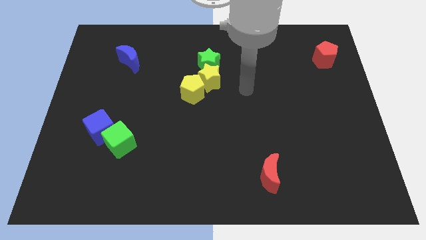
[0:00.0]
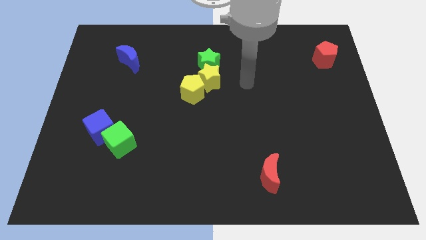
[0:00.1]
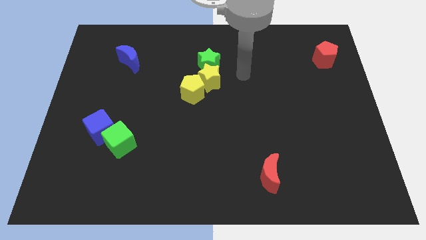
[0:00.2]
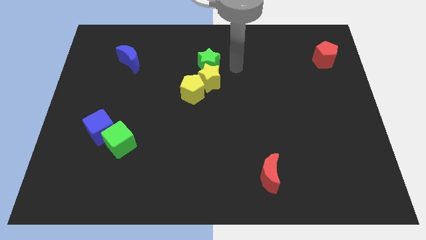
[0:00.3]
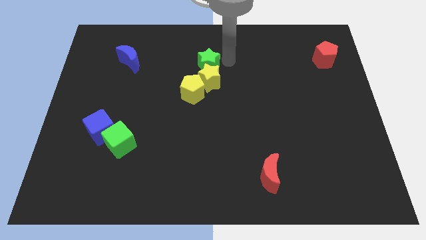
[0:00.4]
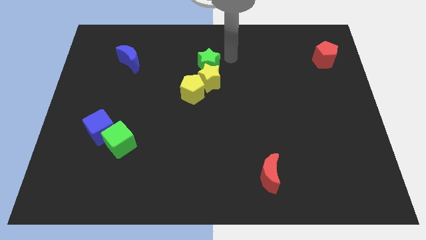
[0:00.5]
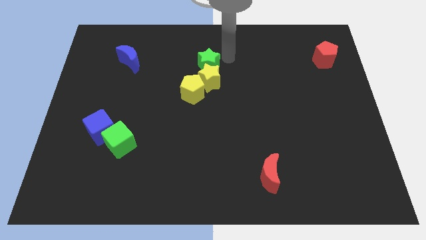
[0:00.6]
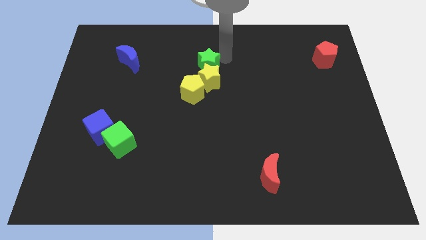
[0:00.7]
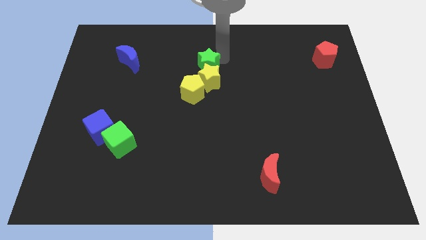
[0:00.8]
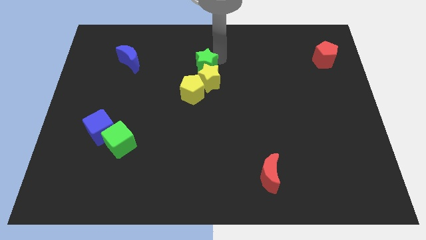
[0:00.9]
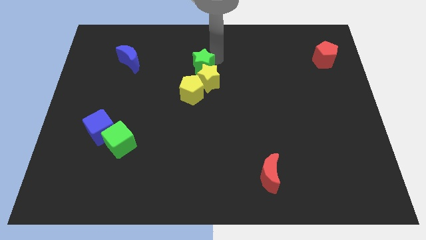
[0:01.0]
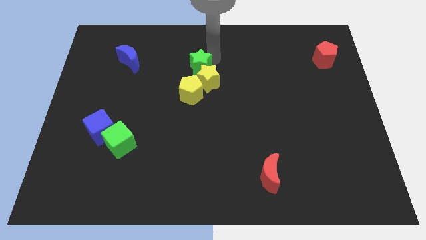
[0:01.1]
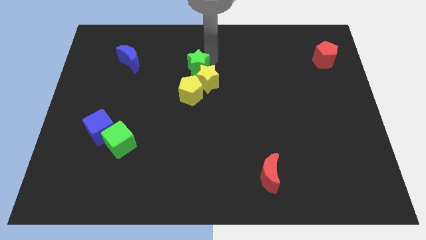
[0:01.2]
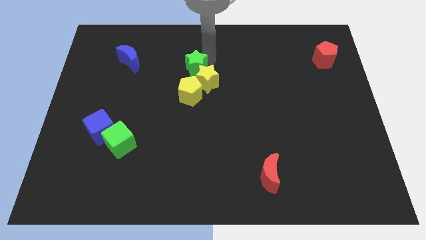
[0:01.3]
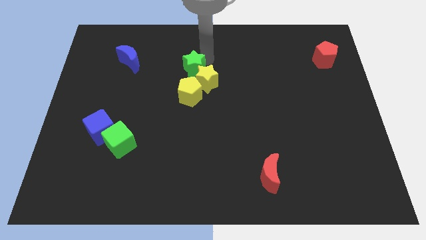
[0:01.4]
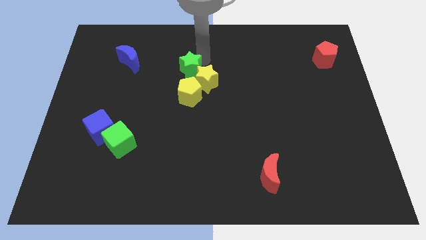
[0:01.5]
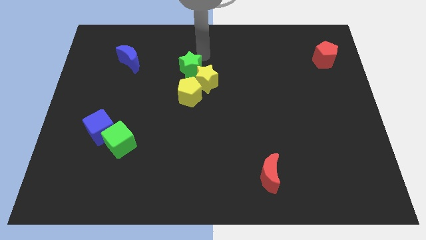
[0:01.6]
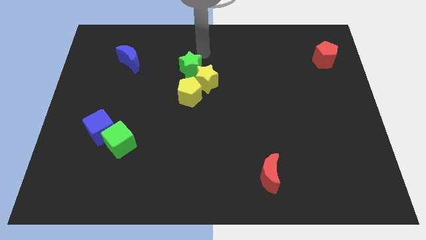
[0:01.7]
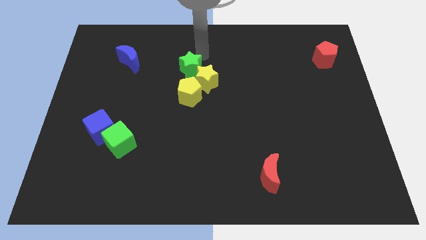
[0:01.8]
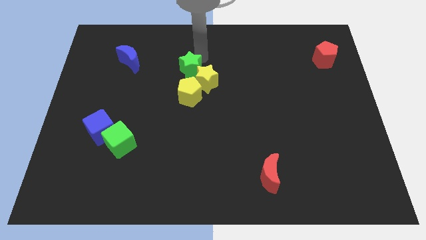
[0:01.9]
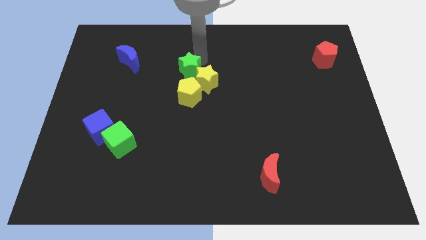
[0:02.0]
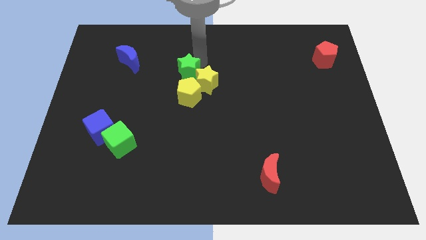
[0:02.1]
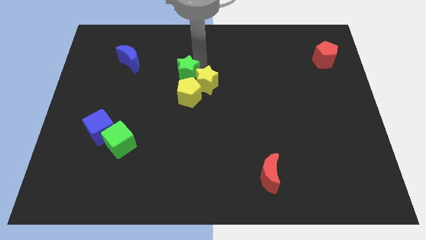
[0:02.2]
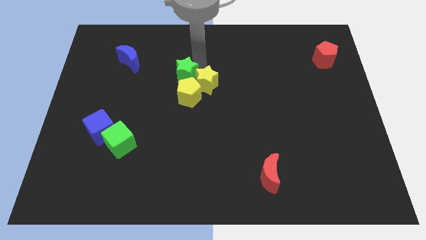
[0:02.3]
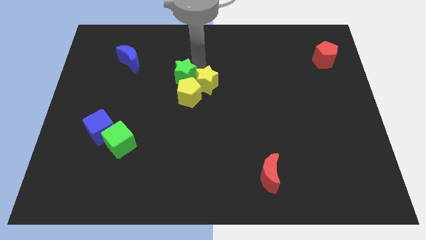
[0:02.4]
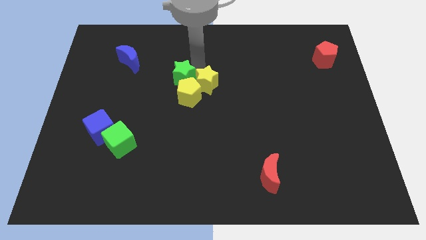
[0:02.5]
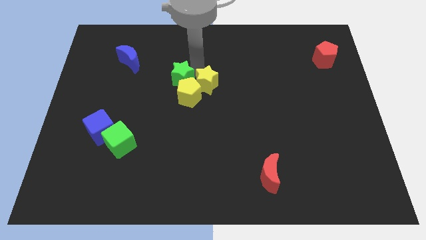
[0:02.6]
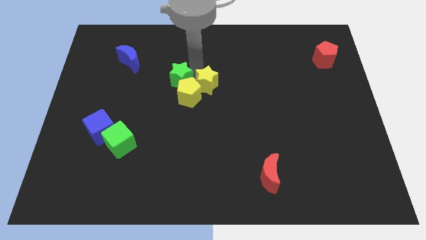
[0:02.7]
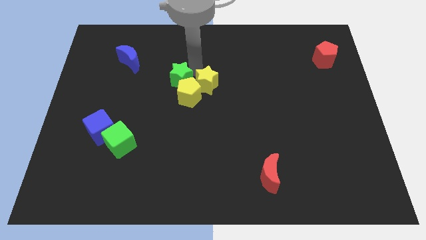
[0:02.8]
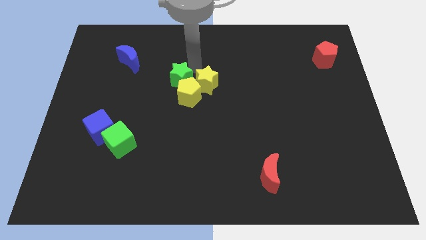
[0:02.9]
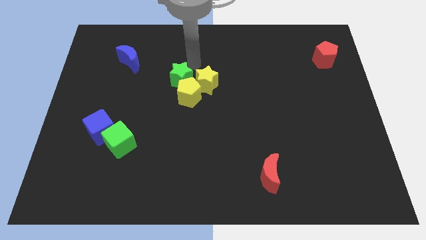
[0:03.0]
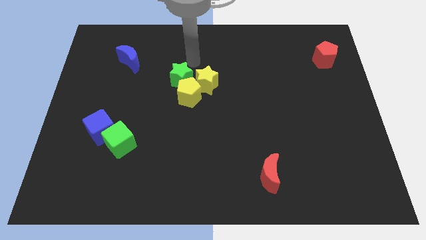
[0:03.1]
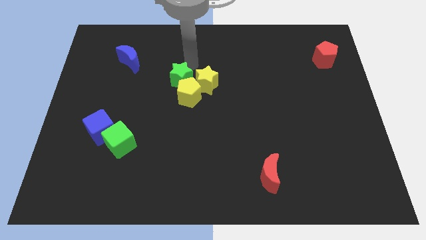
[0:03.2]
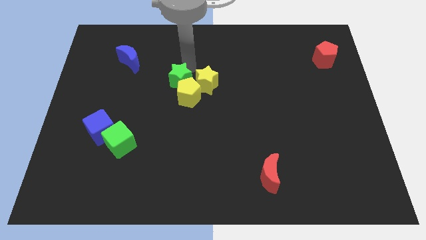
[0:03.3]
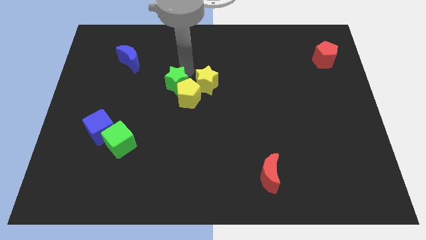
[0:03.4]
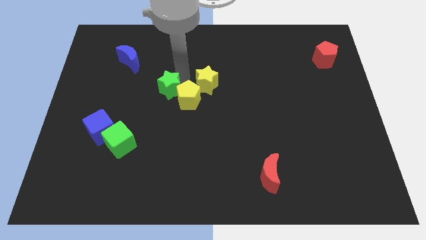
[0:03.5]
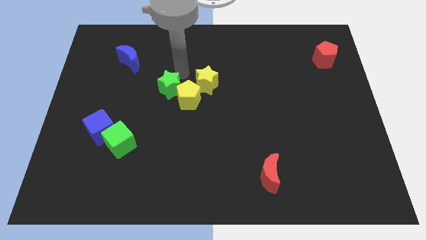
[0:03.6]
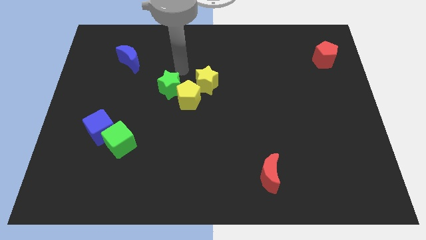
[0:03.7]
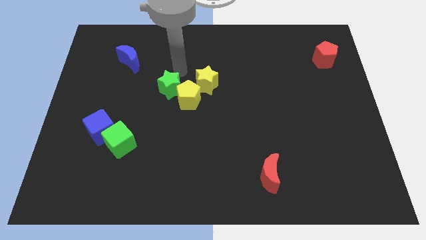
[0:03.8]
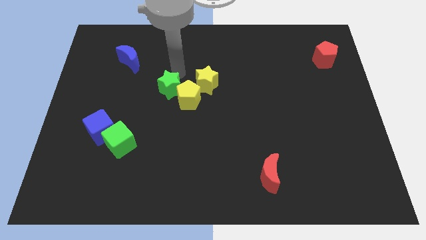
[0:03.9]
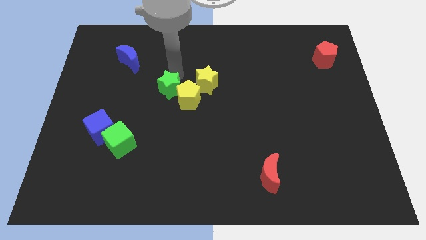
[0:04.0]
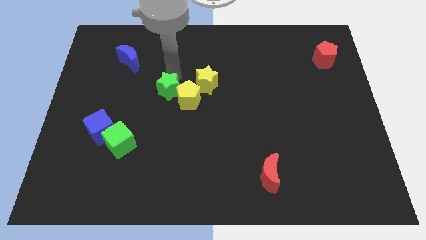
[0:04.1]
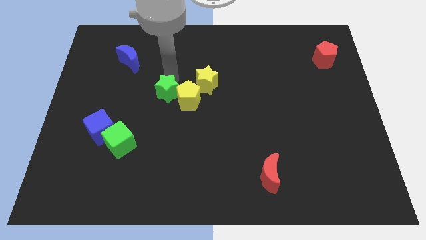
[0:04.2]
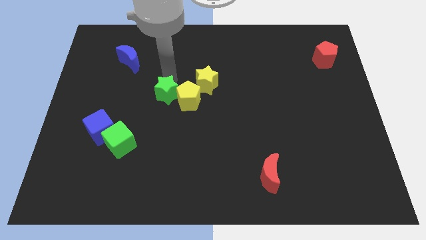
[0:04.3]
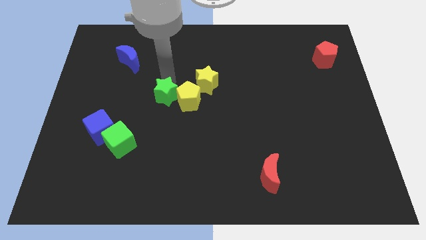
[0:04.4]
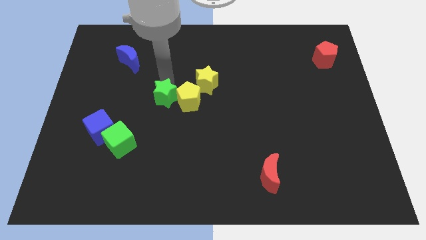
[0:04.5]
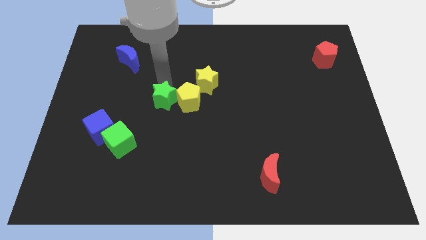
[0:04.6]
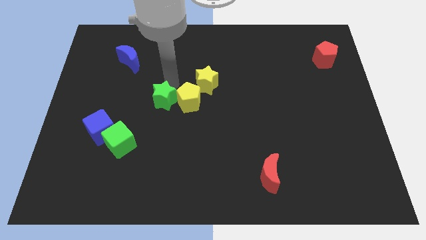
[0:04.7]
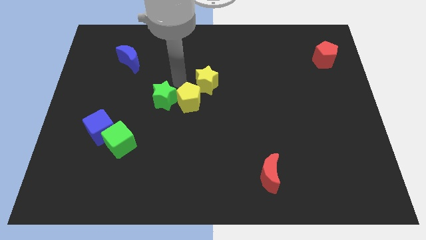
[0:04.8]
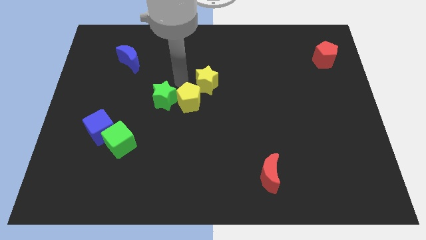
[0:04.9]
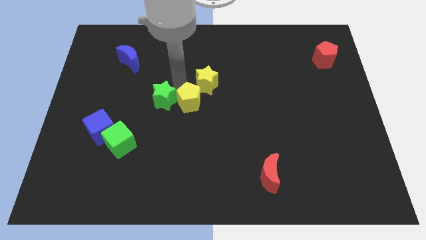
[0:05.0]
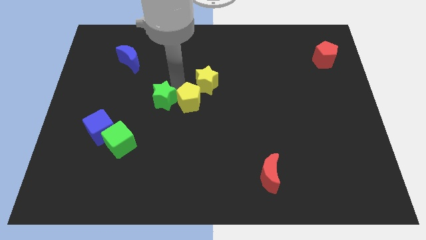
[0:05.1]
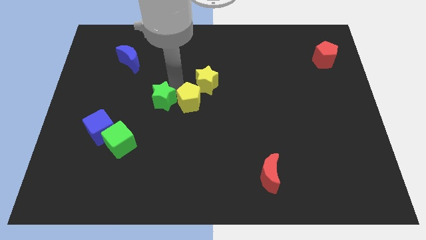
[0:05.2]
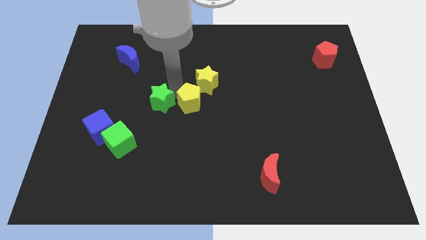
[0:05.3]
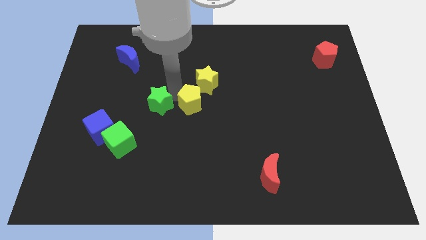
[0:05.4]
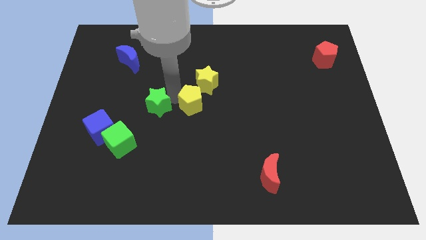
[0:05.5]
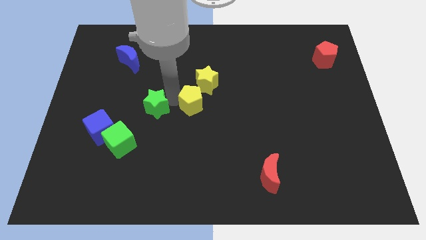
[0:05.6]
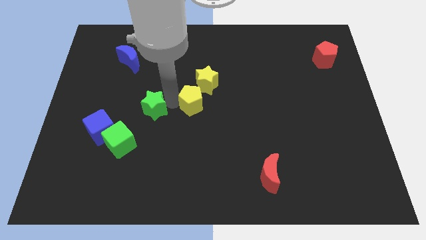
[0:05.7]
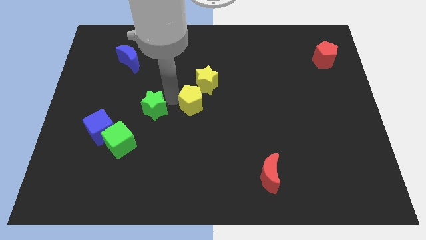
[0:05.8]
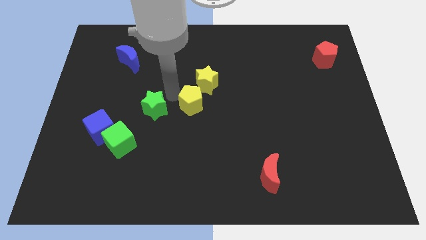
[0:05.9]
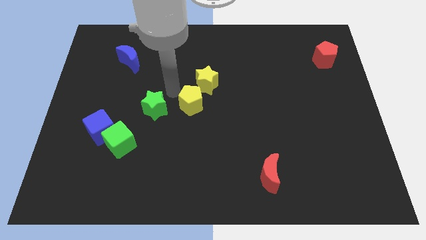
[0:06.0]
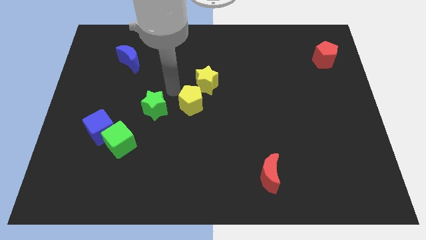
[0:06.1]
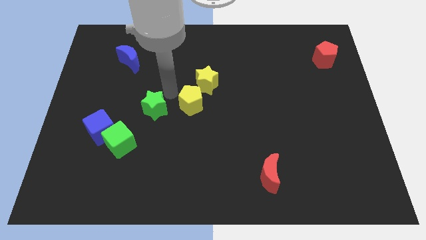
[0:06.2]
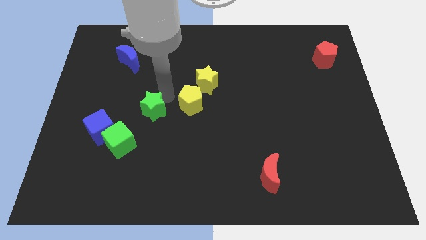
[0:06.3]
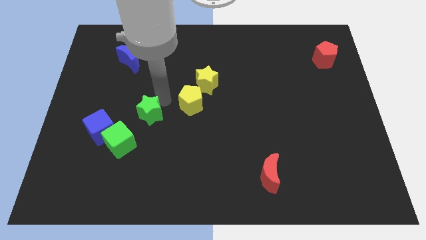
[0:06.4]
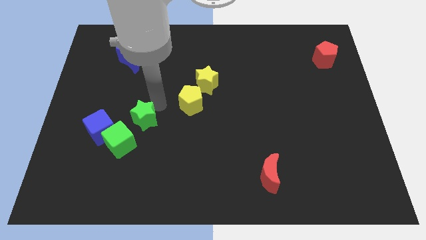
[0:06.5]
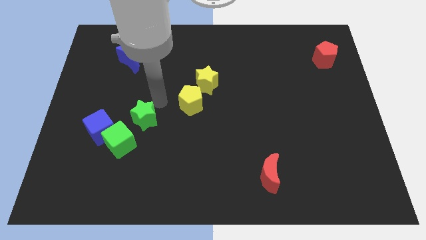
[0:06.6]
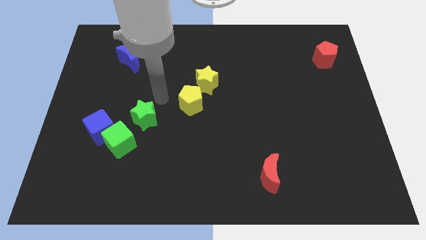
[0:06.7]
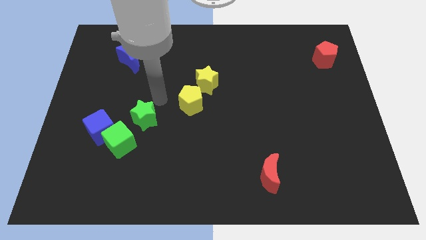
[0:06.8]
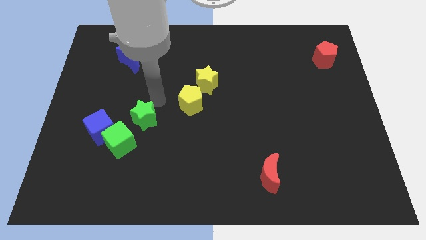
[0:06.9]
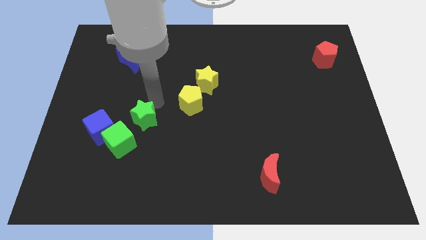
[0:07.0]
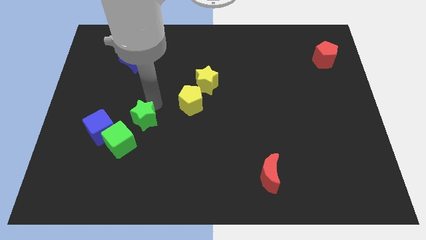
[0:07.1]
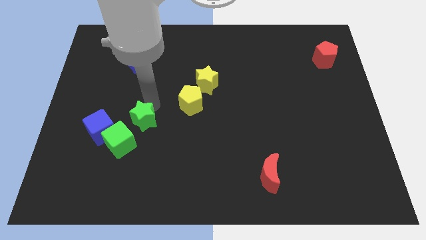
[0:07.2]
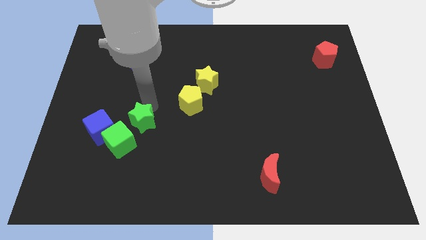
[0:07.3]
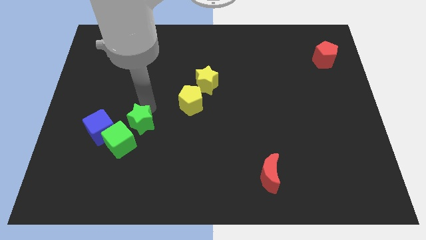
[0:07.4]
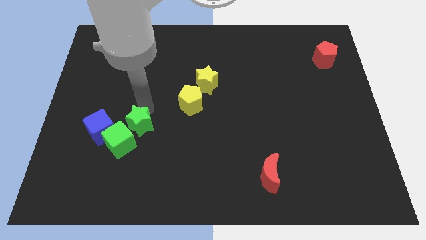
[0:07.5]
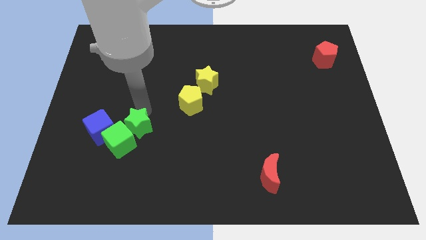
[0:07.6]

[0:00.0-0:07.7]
put the green star to the green cube

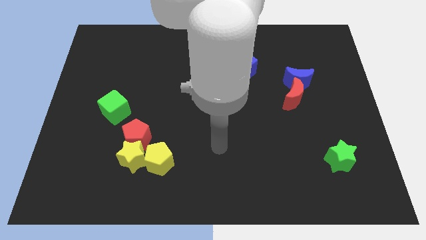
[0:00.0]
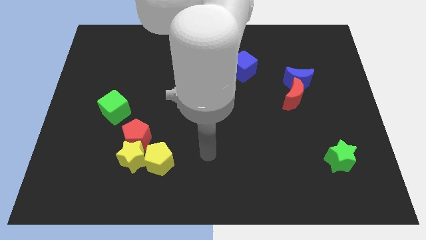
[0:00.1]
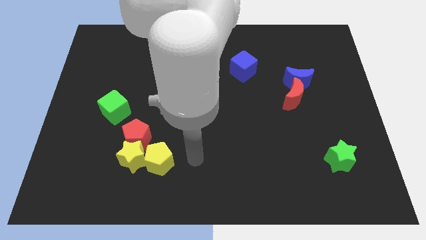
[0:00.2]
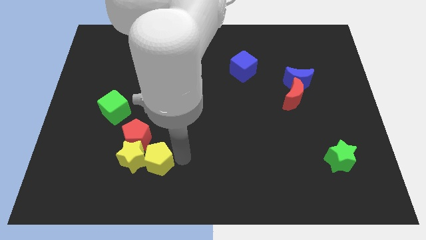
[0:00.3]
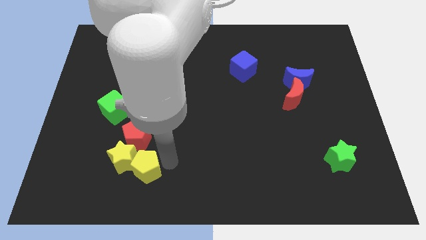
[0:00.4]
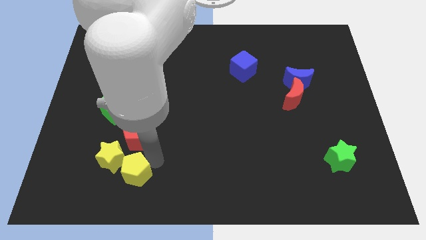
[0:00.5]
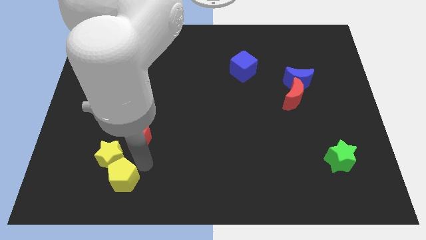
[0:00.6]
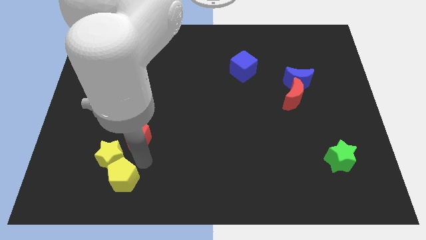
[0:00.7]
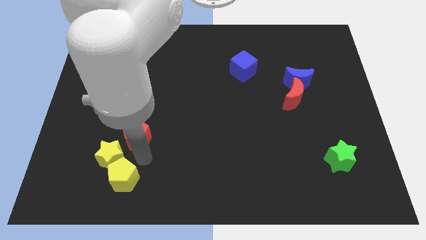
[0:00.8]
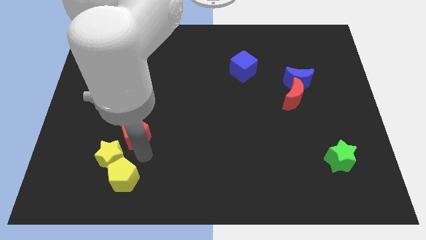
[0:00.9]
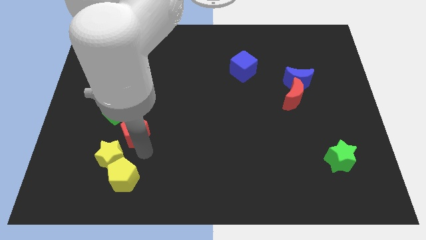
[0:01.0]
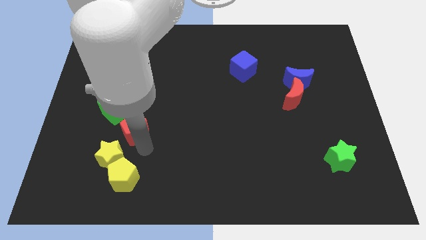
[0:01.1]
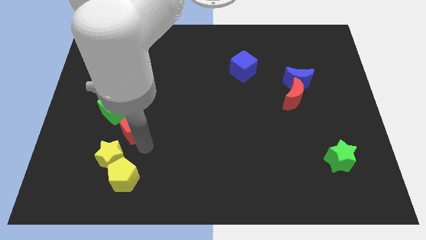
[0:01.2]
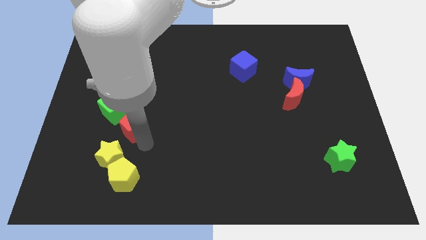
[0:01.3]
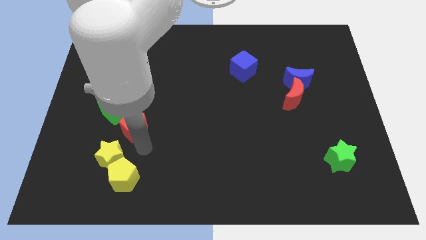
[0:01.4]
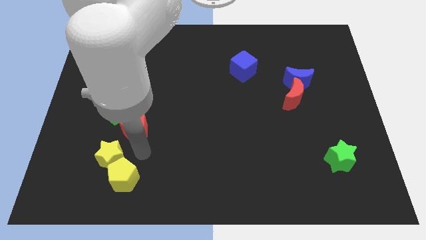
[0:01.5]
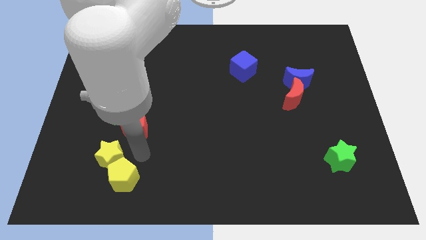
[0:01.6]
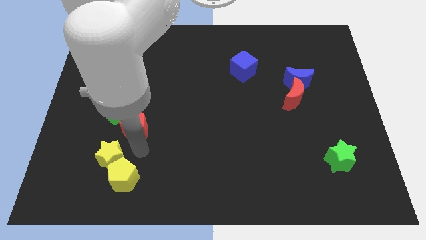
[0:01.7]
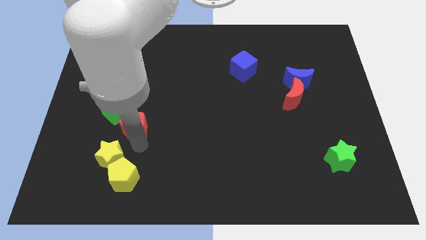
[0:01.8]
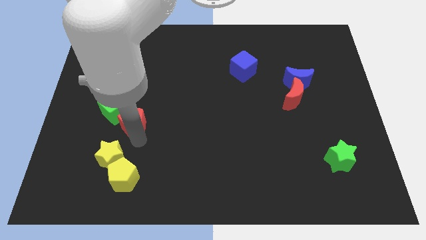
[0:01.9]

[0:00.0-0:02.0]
move the red pentagon to the green cube
